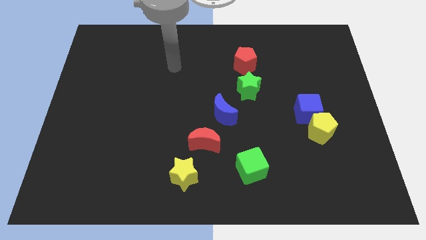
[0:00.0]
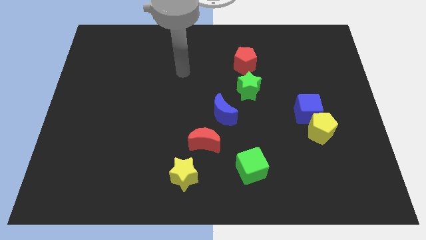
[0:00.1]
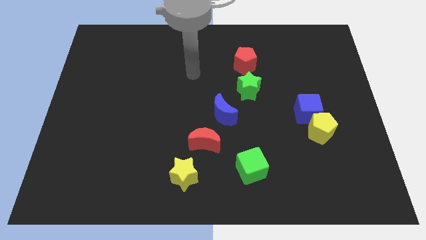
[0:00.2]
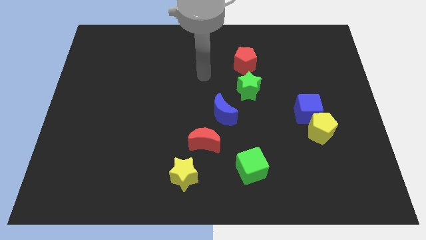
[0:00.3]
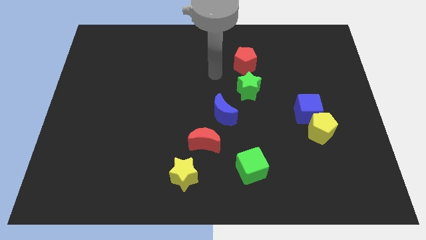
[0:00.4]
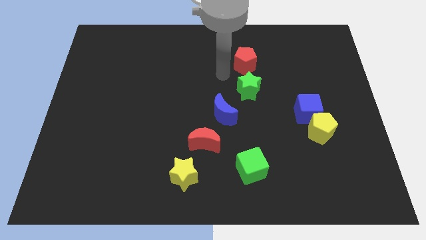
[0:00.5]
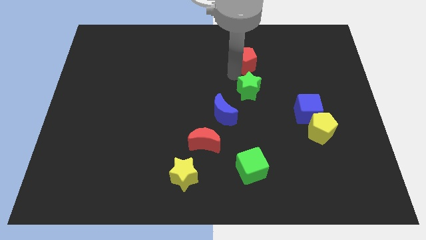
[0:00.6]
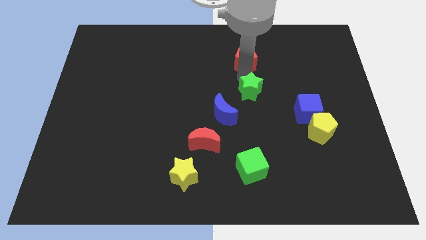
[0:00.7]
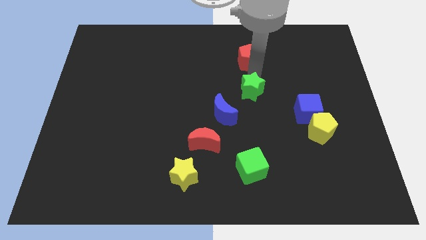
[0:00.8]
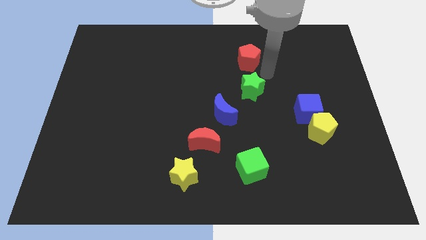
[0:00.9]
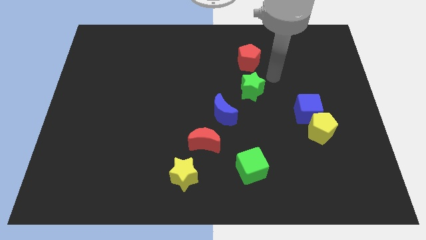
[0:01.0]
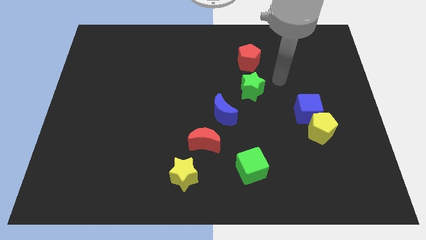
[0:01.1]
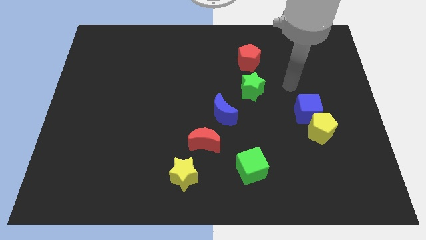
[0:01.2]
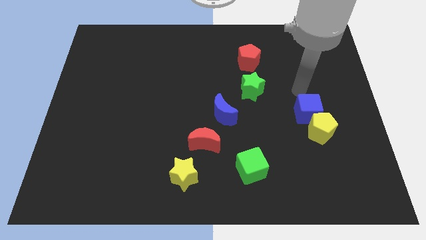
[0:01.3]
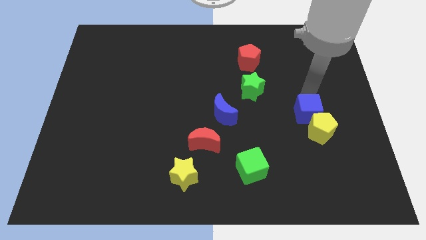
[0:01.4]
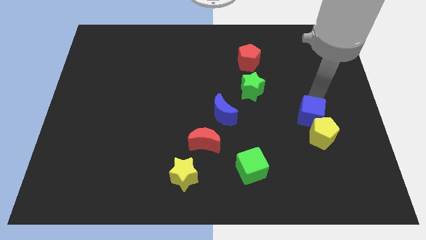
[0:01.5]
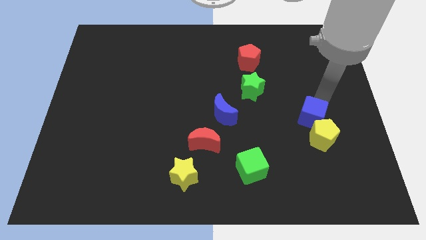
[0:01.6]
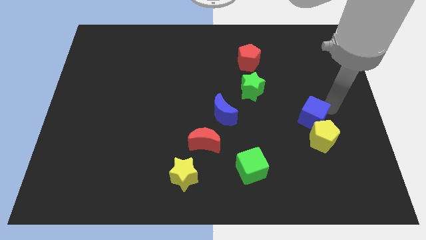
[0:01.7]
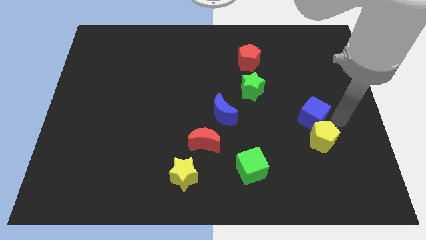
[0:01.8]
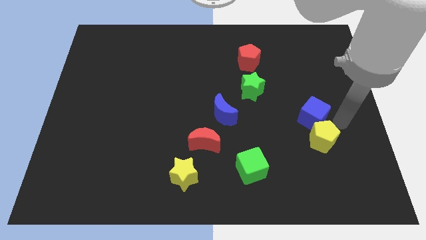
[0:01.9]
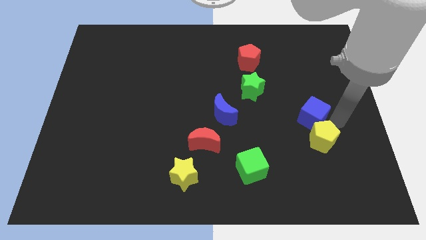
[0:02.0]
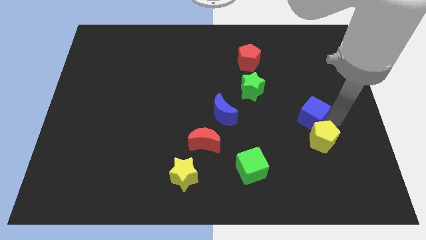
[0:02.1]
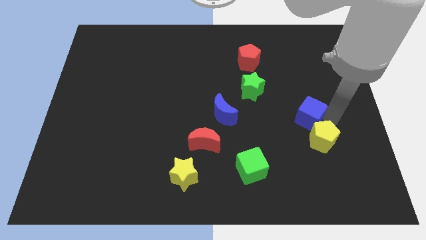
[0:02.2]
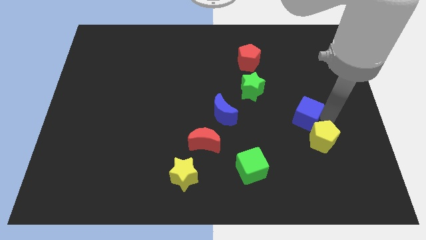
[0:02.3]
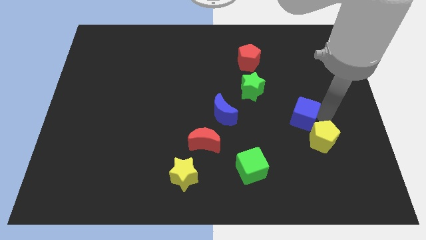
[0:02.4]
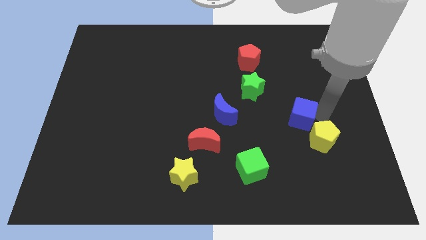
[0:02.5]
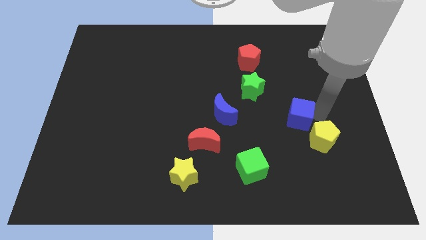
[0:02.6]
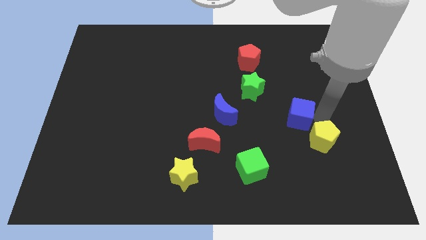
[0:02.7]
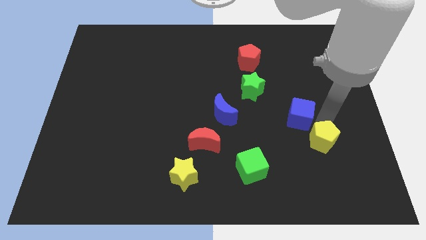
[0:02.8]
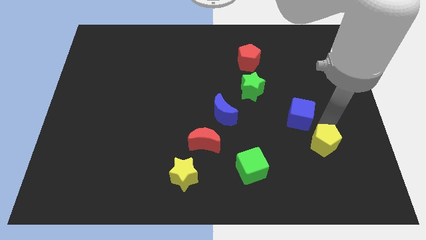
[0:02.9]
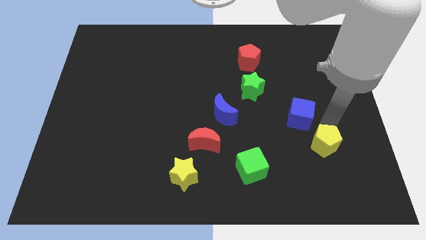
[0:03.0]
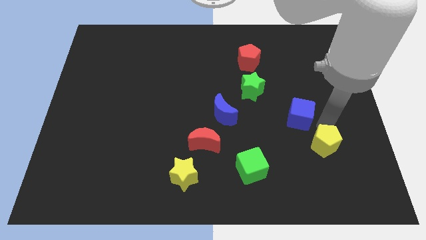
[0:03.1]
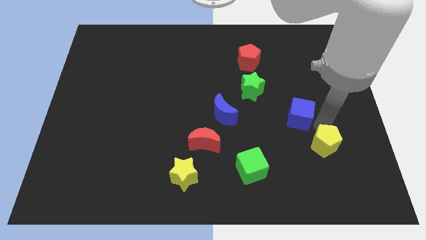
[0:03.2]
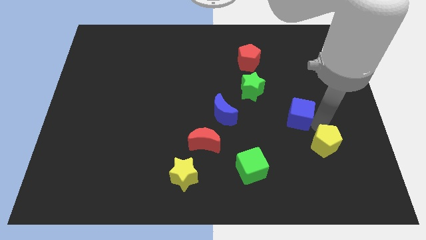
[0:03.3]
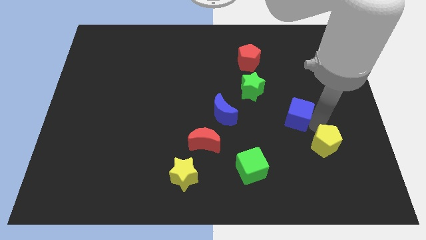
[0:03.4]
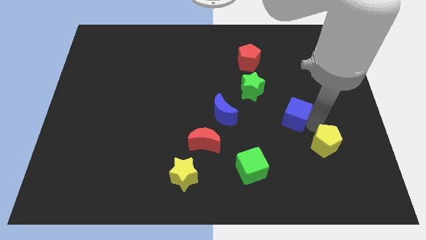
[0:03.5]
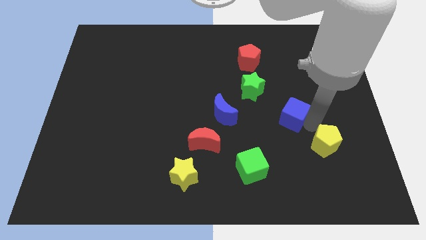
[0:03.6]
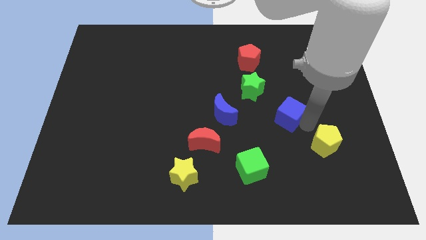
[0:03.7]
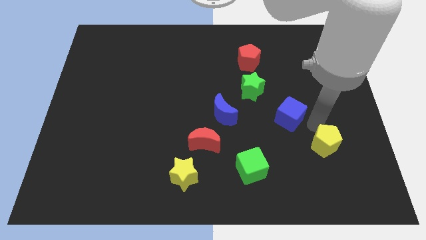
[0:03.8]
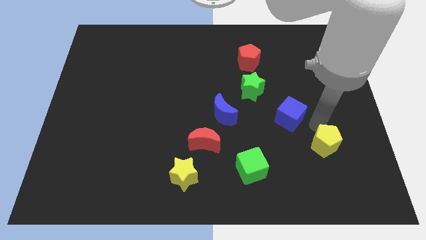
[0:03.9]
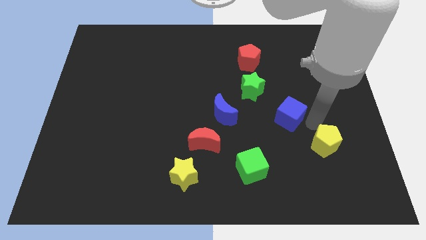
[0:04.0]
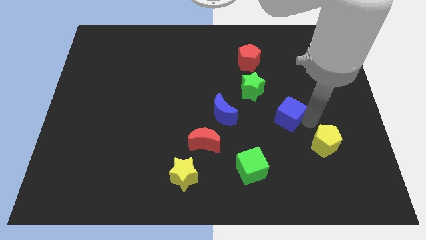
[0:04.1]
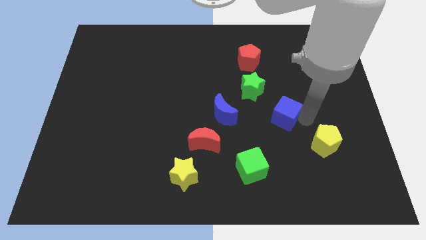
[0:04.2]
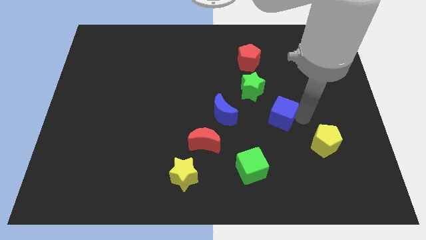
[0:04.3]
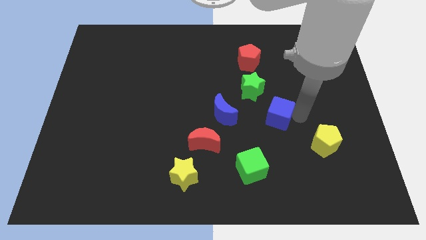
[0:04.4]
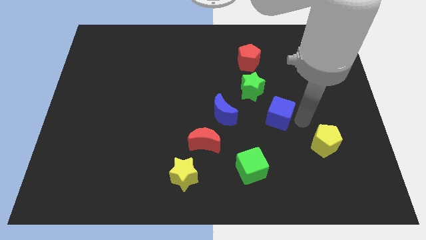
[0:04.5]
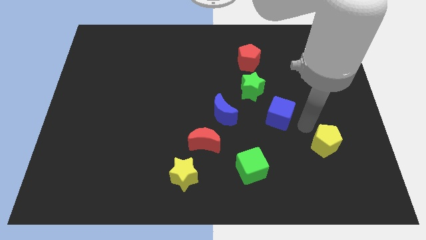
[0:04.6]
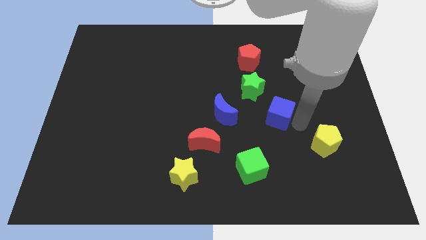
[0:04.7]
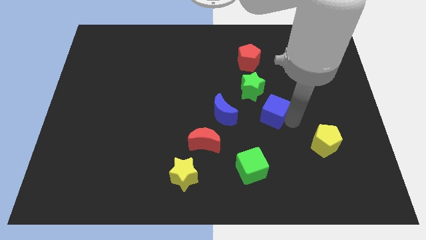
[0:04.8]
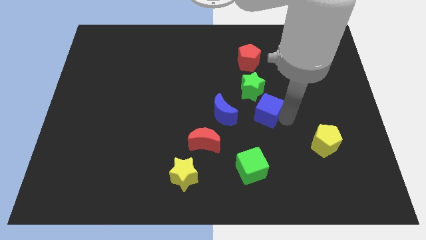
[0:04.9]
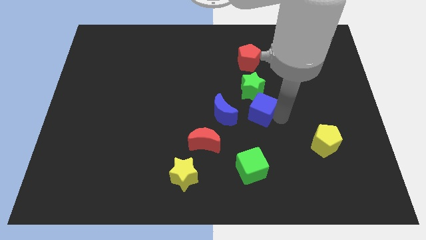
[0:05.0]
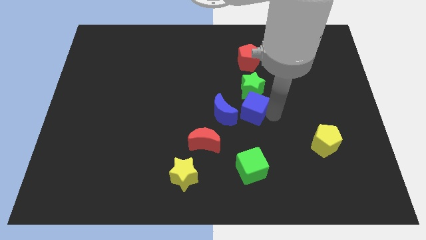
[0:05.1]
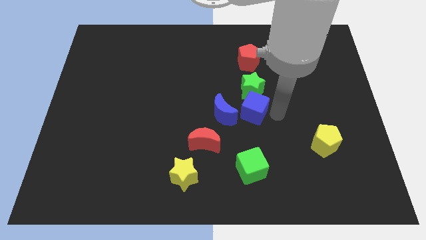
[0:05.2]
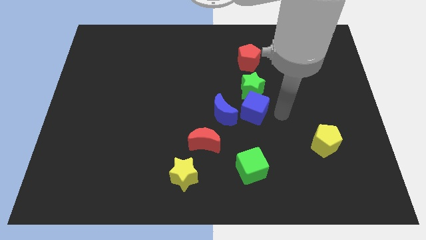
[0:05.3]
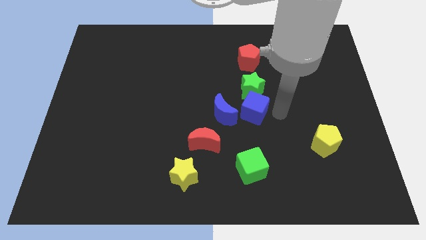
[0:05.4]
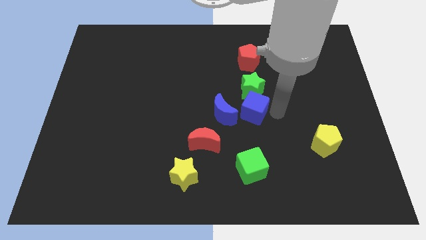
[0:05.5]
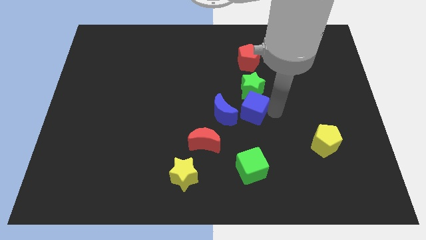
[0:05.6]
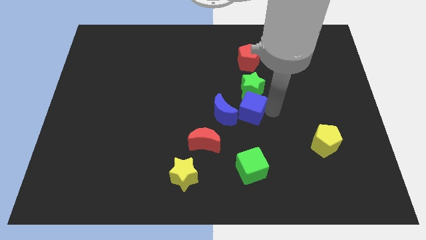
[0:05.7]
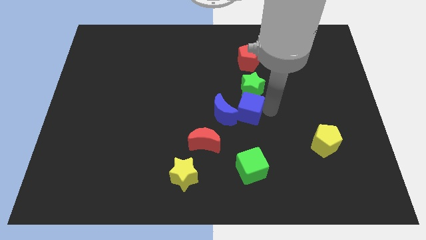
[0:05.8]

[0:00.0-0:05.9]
move the blue cube towards the blue moon

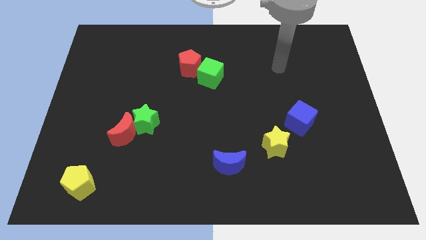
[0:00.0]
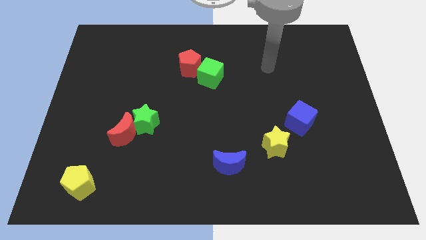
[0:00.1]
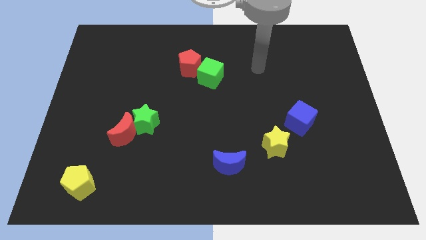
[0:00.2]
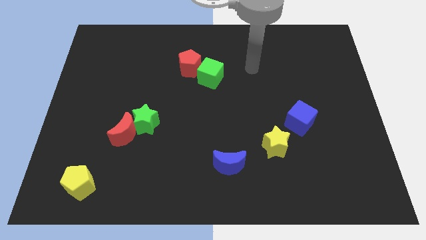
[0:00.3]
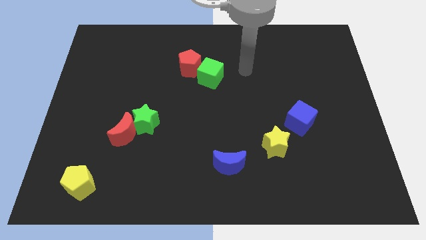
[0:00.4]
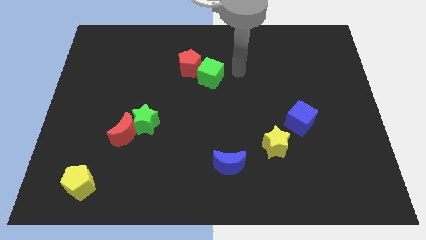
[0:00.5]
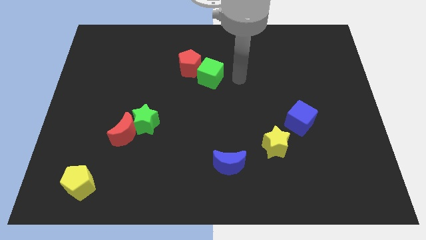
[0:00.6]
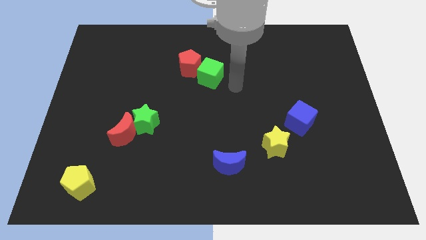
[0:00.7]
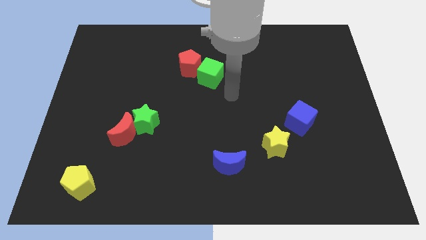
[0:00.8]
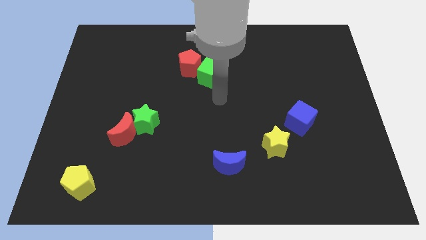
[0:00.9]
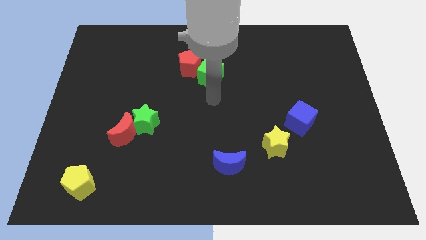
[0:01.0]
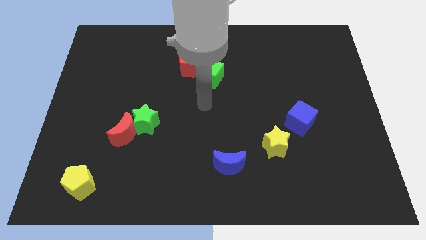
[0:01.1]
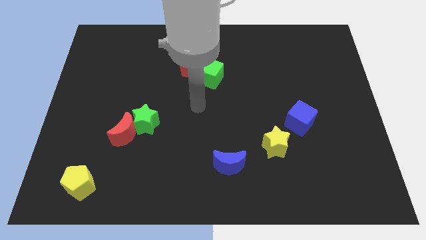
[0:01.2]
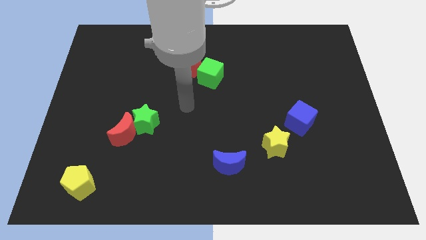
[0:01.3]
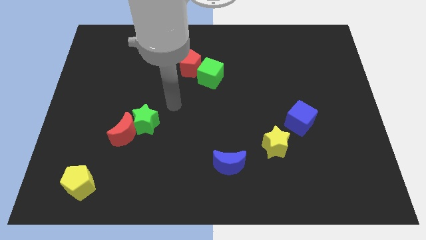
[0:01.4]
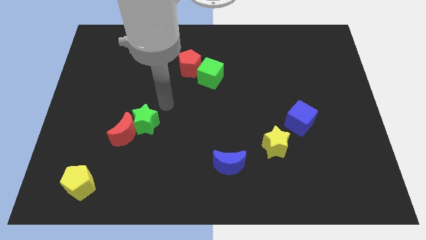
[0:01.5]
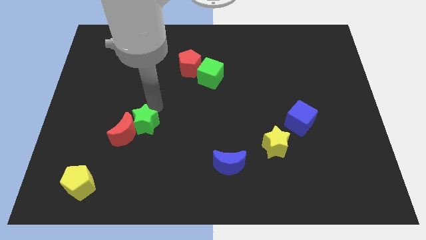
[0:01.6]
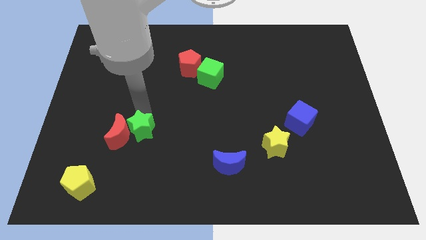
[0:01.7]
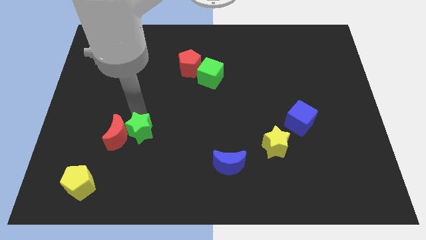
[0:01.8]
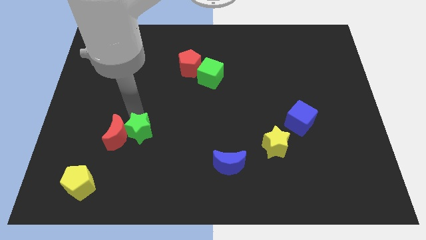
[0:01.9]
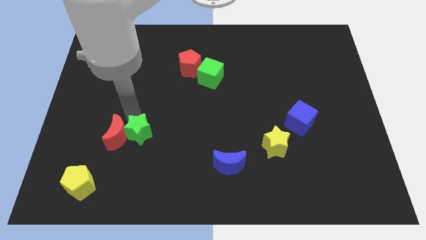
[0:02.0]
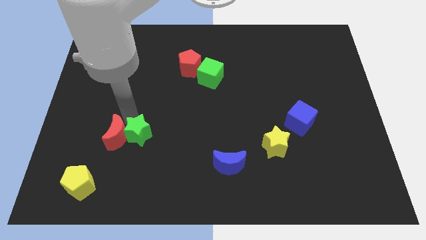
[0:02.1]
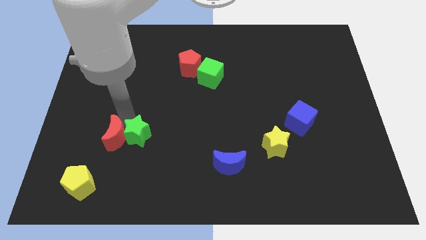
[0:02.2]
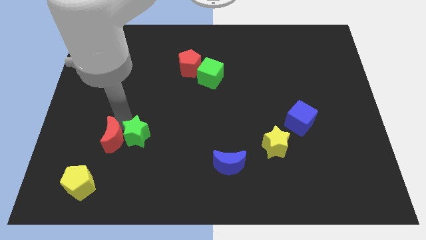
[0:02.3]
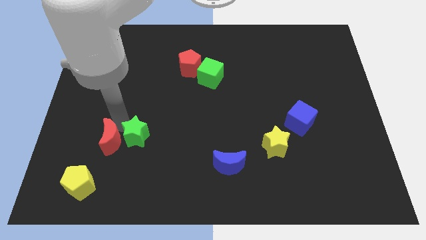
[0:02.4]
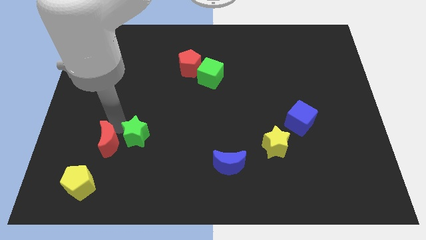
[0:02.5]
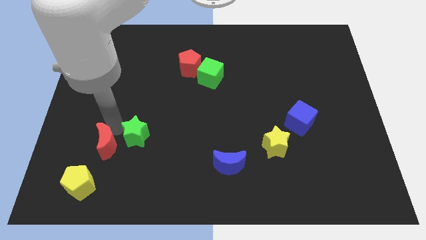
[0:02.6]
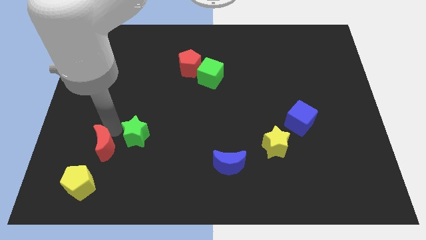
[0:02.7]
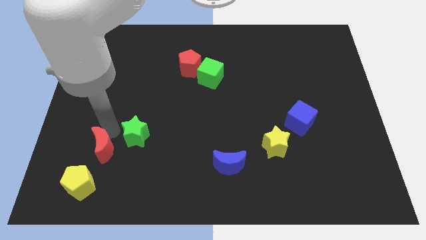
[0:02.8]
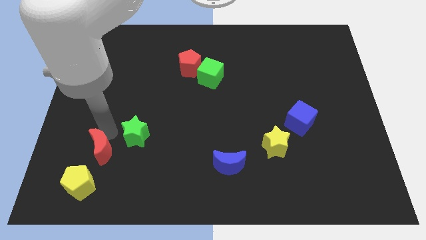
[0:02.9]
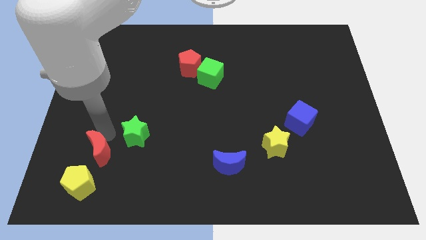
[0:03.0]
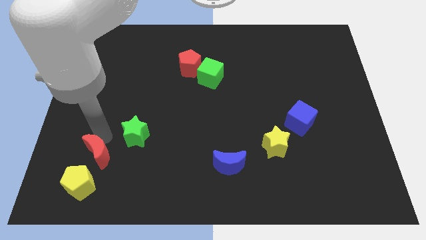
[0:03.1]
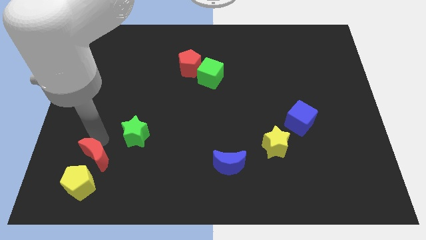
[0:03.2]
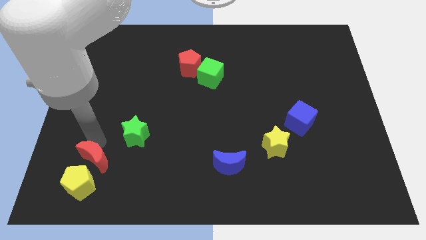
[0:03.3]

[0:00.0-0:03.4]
push the red moon close to the yellow pentagon
